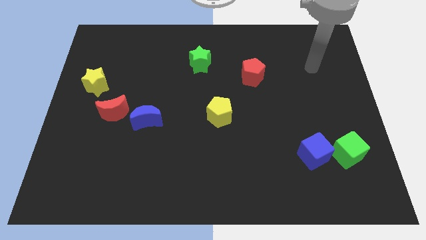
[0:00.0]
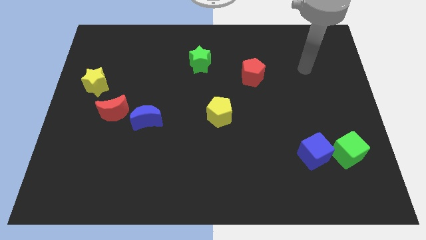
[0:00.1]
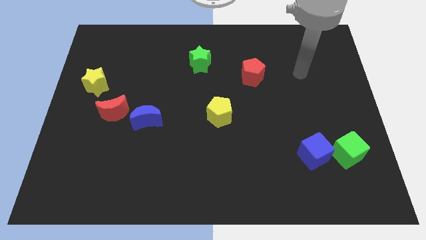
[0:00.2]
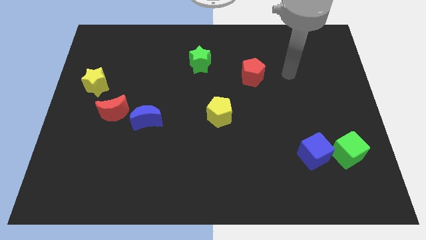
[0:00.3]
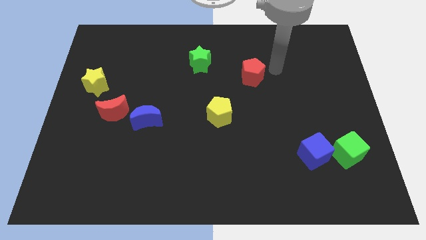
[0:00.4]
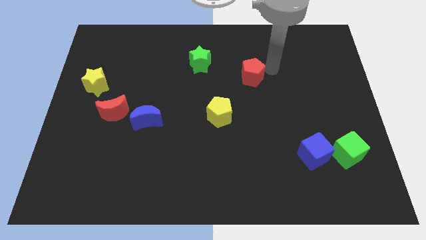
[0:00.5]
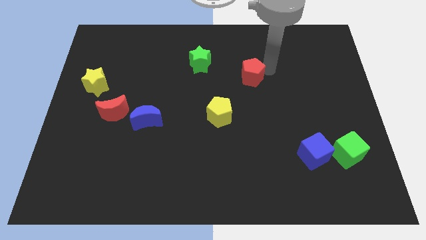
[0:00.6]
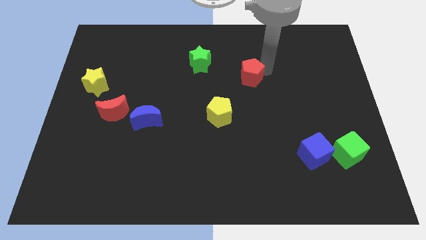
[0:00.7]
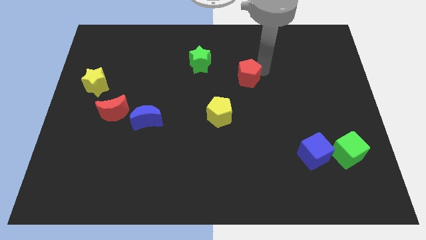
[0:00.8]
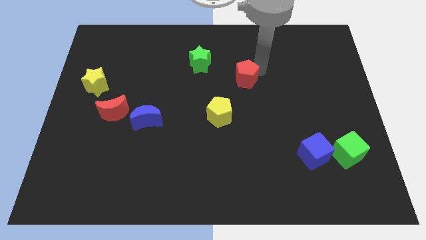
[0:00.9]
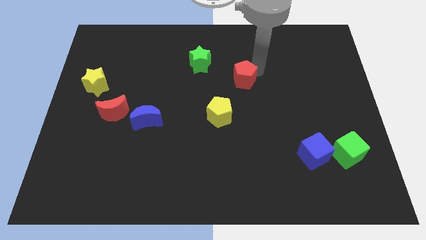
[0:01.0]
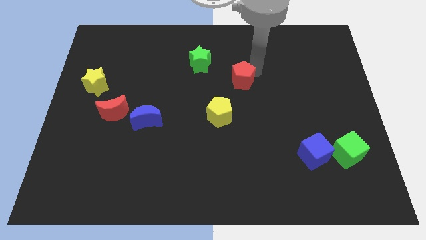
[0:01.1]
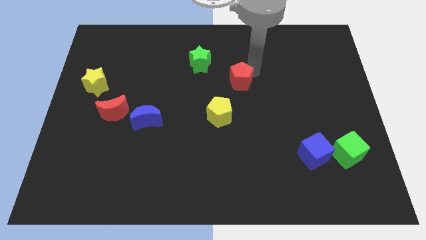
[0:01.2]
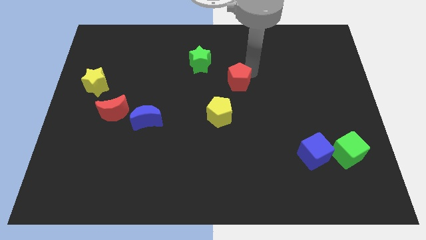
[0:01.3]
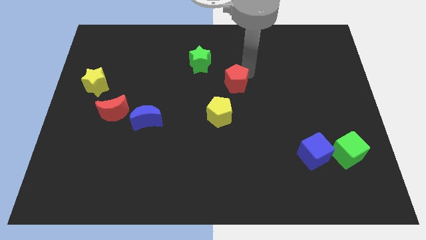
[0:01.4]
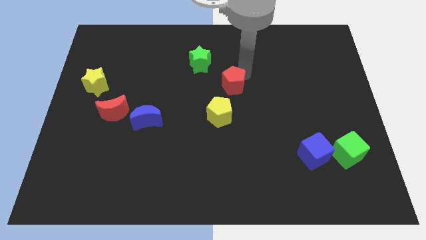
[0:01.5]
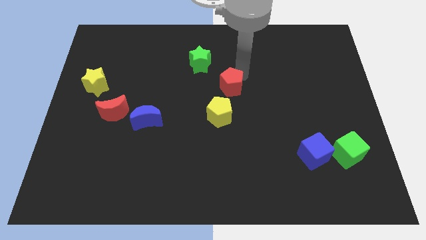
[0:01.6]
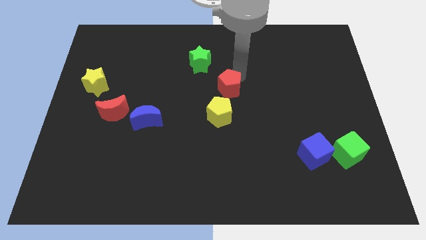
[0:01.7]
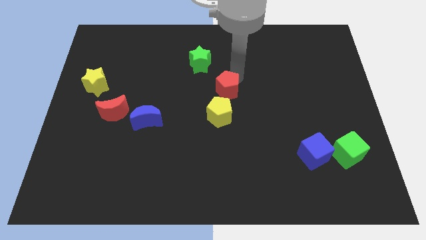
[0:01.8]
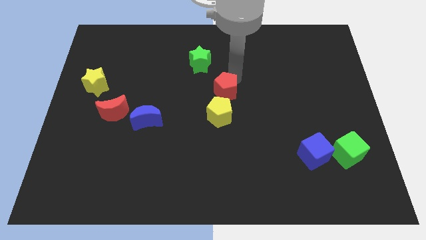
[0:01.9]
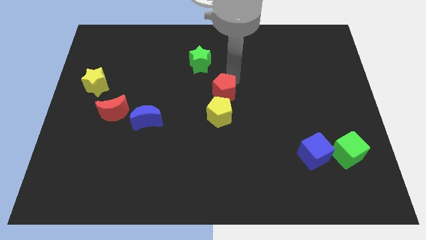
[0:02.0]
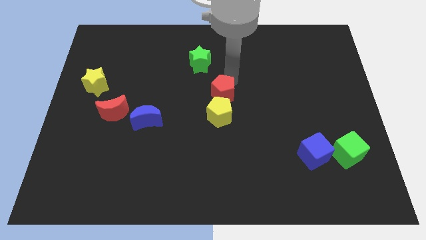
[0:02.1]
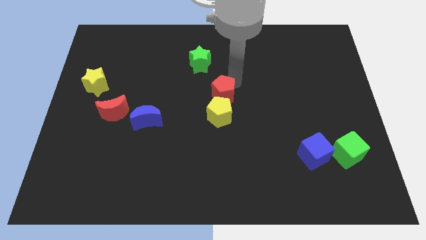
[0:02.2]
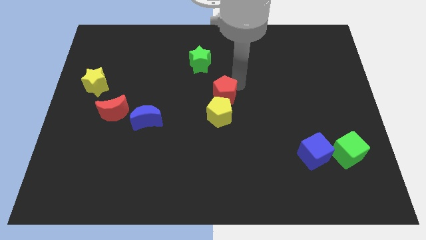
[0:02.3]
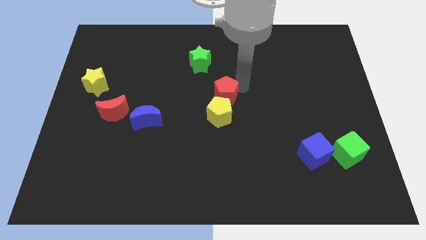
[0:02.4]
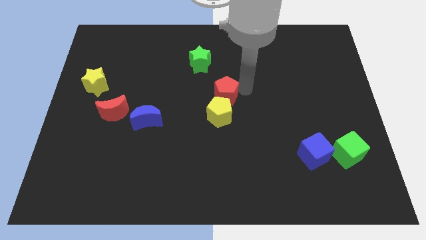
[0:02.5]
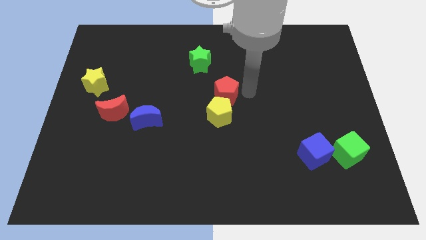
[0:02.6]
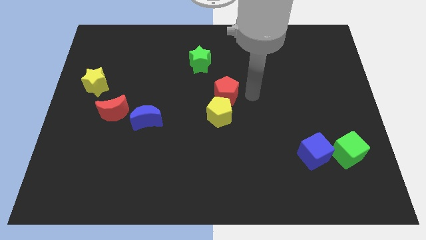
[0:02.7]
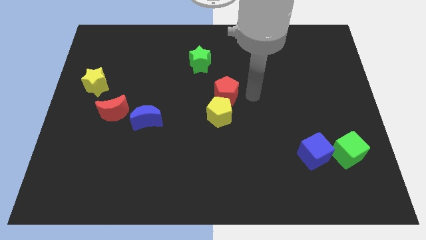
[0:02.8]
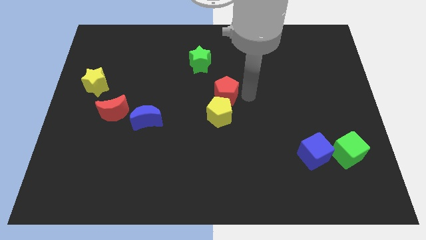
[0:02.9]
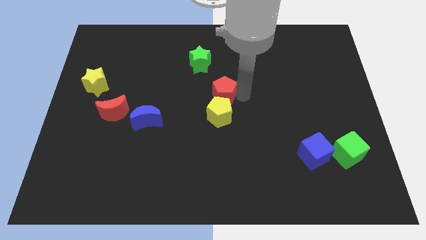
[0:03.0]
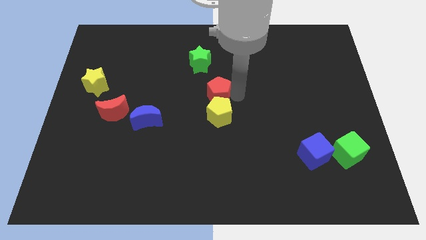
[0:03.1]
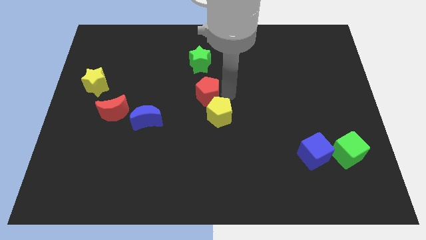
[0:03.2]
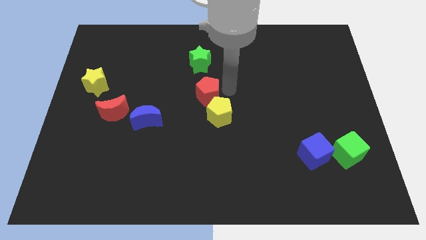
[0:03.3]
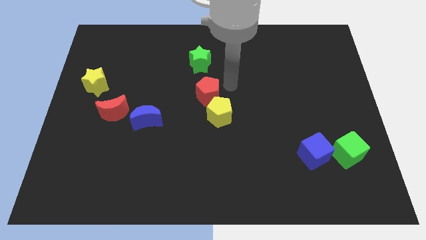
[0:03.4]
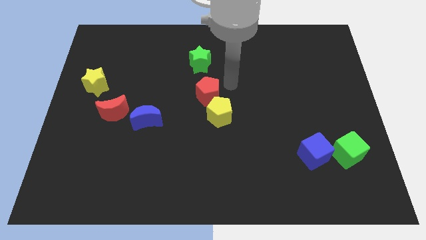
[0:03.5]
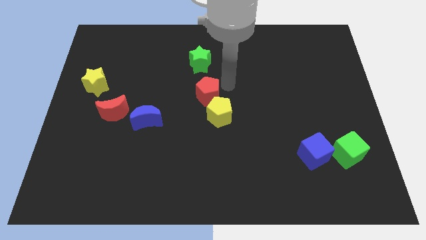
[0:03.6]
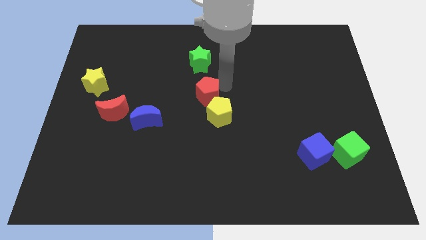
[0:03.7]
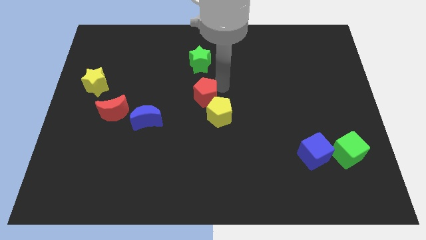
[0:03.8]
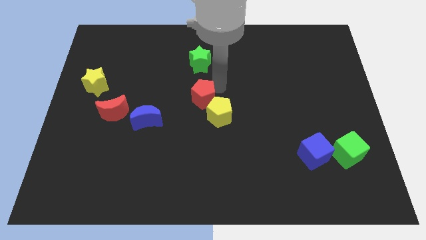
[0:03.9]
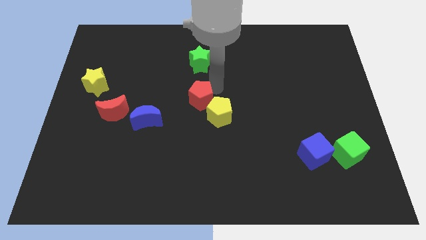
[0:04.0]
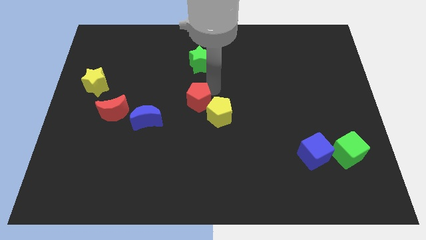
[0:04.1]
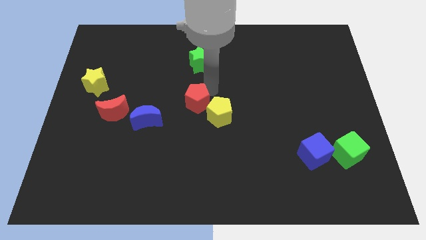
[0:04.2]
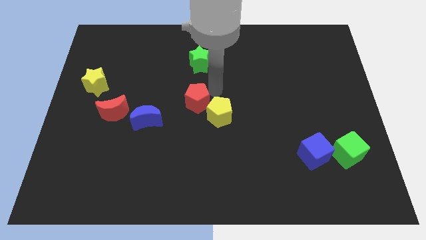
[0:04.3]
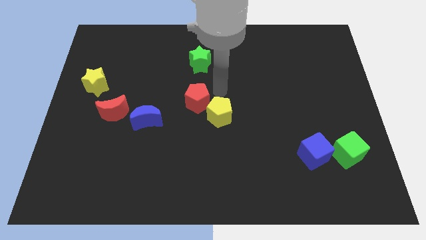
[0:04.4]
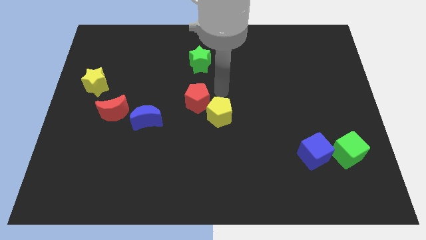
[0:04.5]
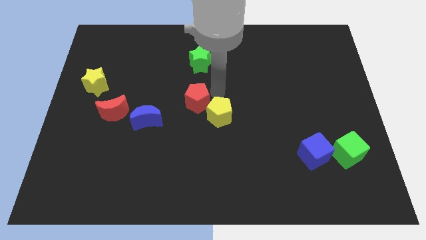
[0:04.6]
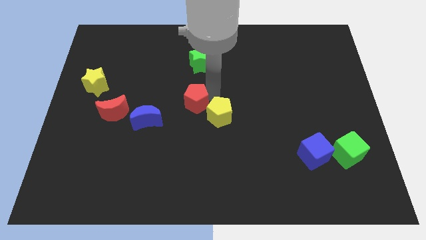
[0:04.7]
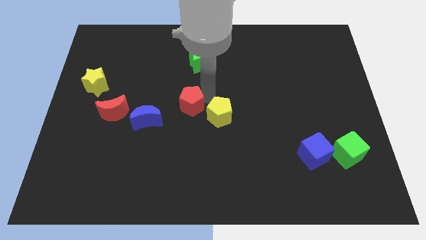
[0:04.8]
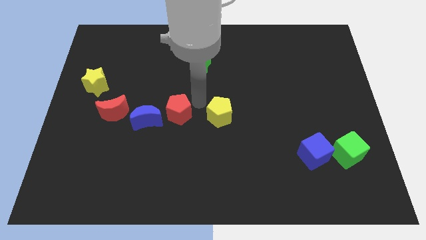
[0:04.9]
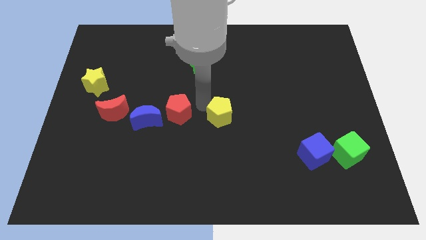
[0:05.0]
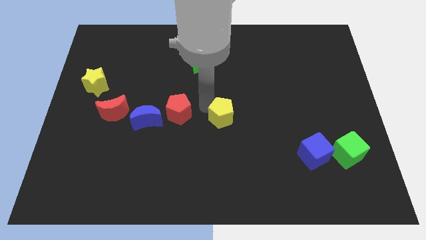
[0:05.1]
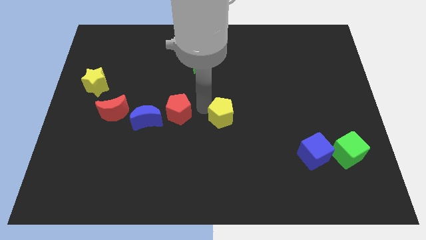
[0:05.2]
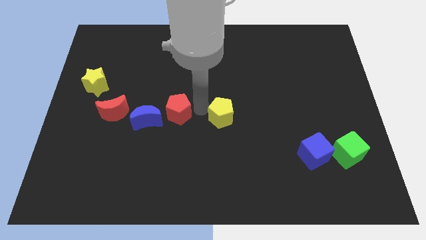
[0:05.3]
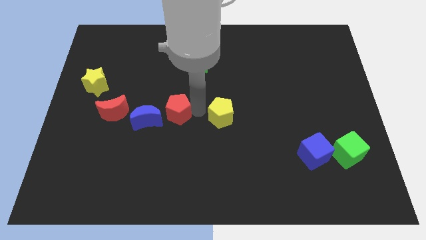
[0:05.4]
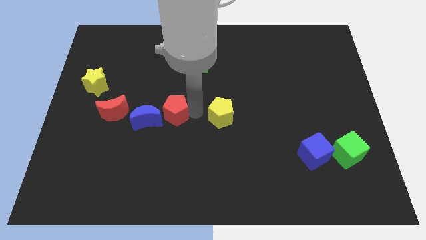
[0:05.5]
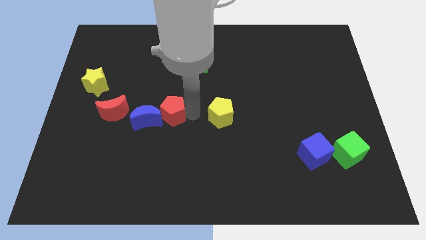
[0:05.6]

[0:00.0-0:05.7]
slide the red pentagon close to the blue moon

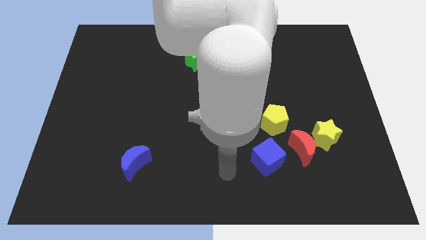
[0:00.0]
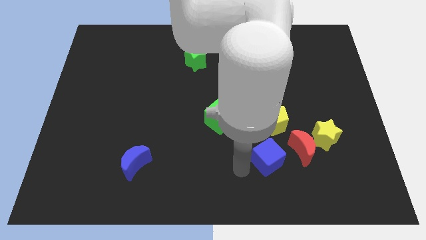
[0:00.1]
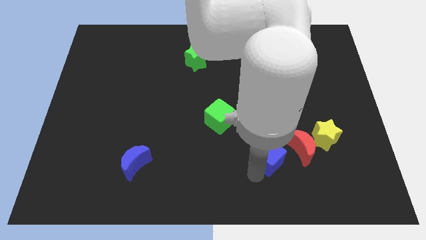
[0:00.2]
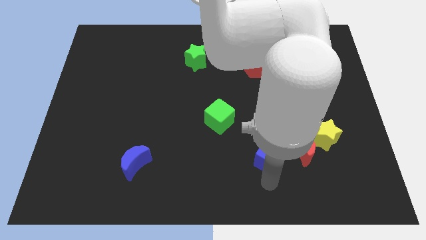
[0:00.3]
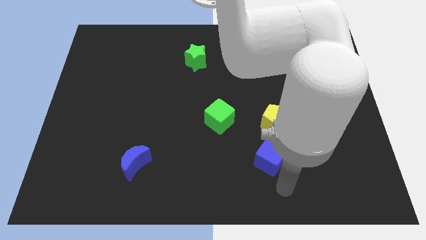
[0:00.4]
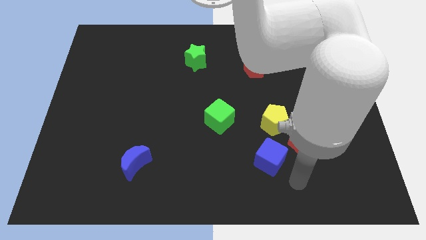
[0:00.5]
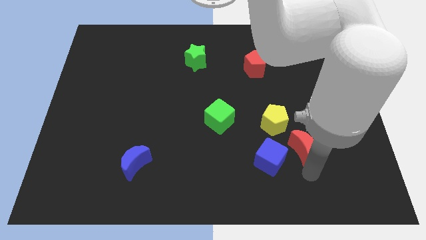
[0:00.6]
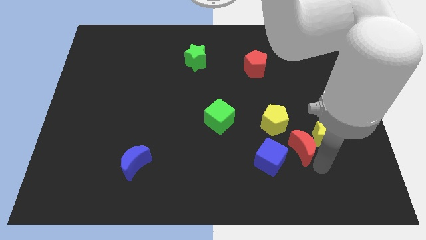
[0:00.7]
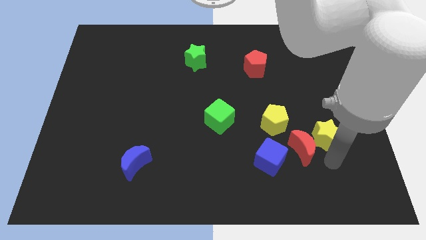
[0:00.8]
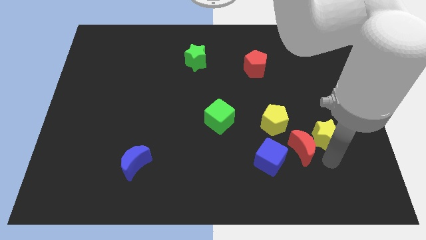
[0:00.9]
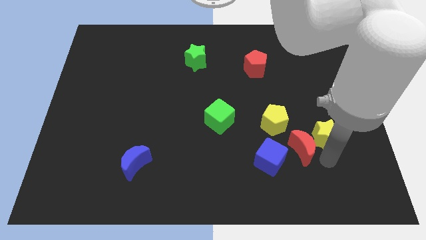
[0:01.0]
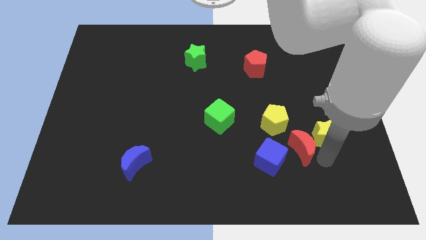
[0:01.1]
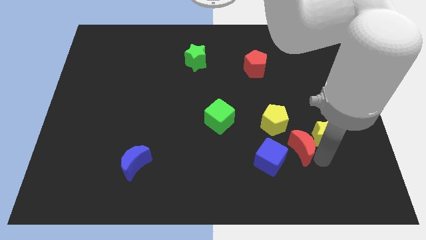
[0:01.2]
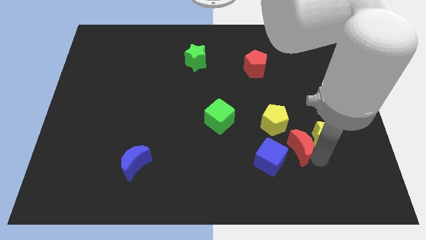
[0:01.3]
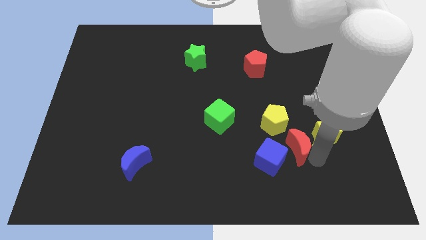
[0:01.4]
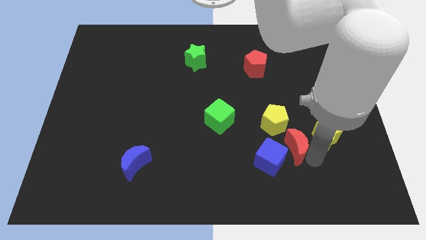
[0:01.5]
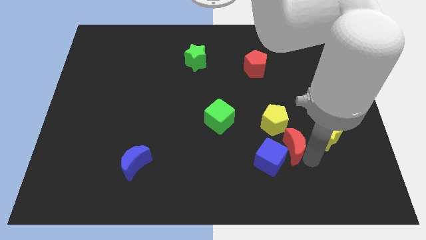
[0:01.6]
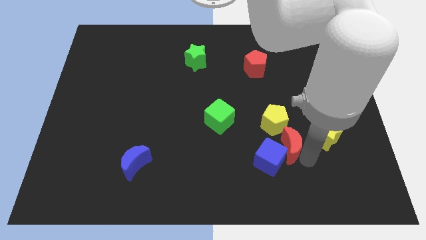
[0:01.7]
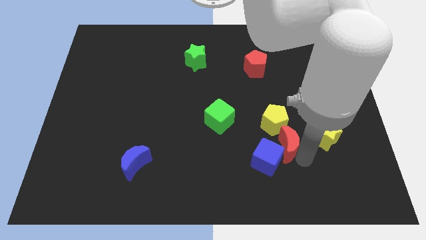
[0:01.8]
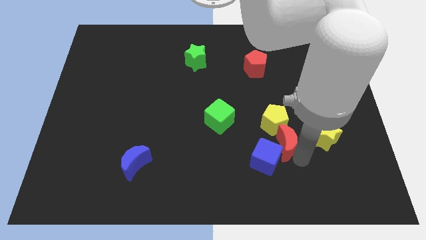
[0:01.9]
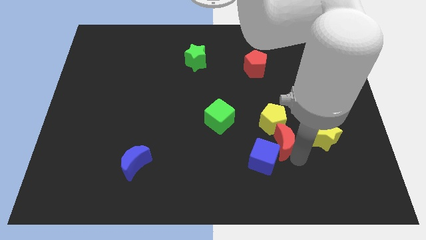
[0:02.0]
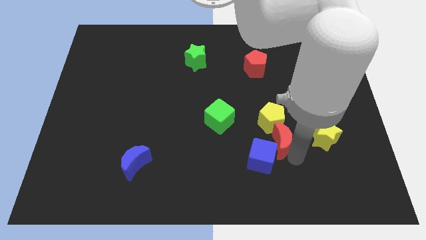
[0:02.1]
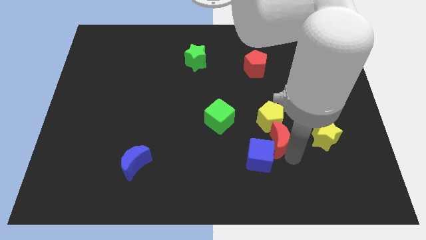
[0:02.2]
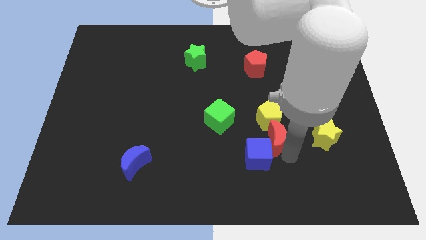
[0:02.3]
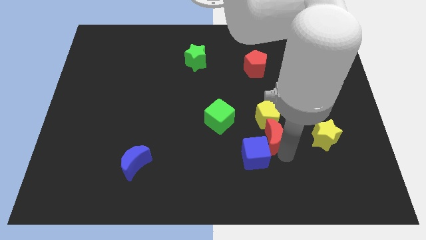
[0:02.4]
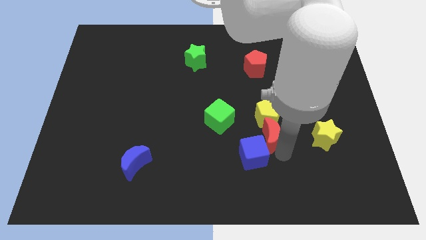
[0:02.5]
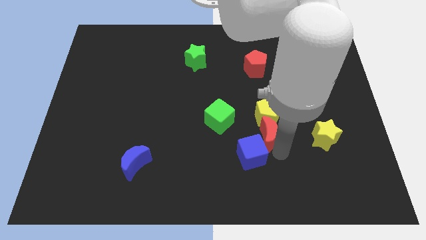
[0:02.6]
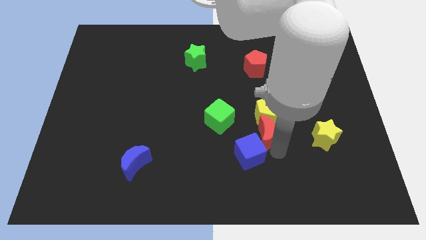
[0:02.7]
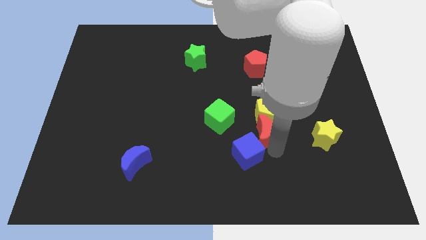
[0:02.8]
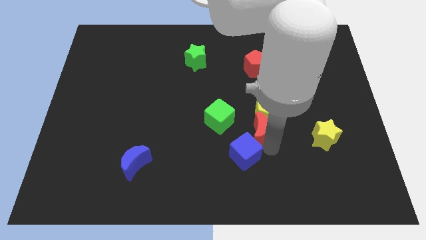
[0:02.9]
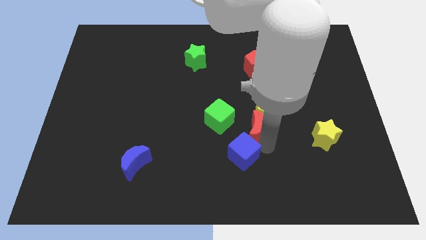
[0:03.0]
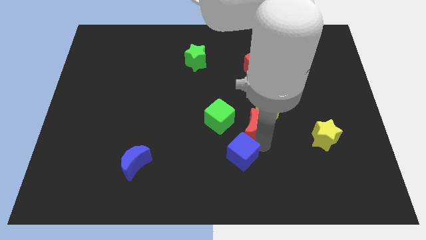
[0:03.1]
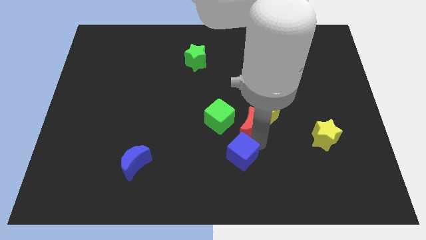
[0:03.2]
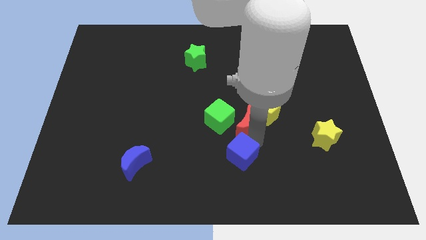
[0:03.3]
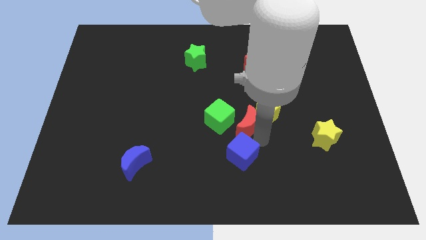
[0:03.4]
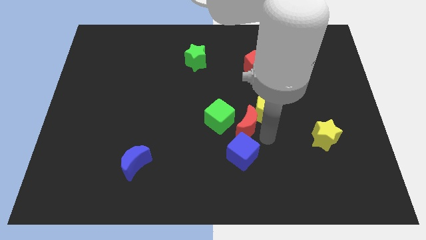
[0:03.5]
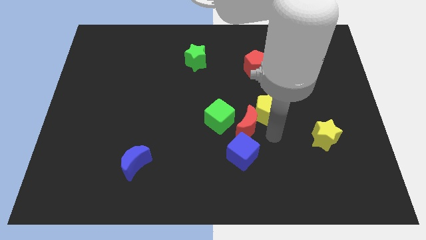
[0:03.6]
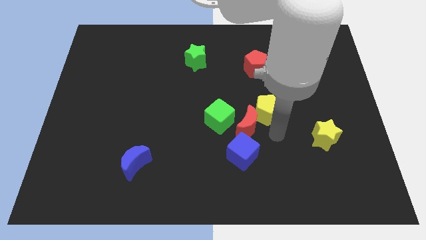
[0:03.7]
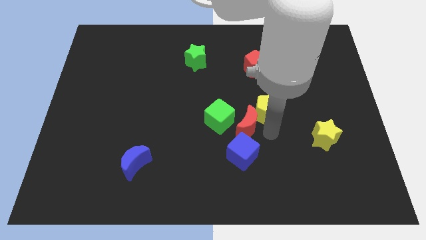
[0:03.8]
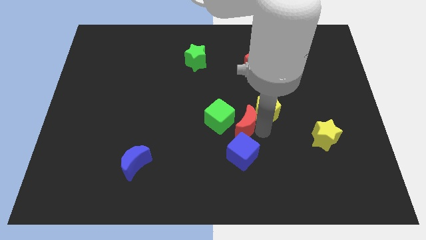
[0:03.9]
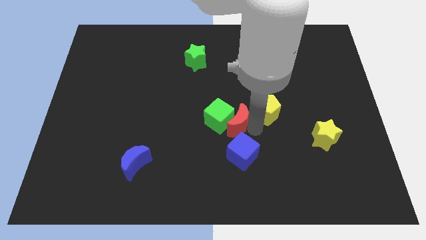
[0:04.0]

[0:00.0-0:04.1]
put the red moon towards the green cube
